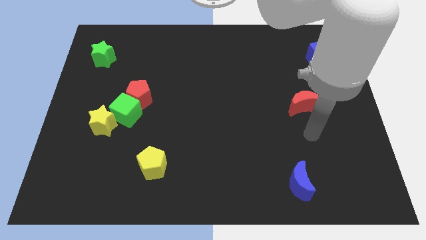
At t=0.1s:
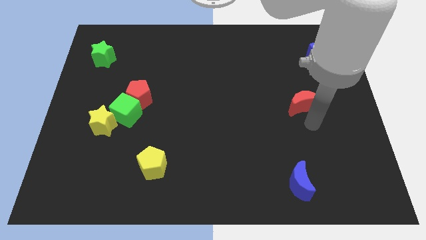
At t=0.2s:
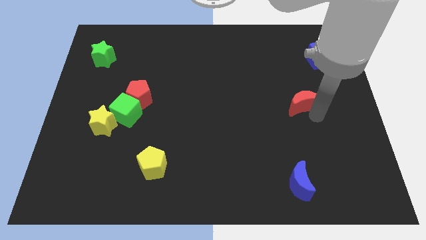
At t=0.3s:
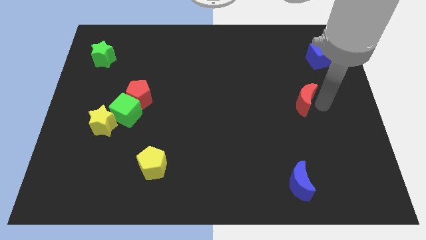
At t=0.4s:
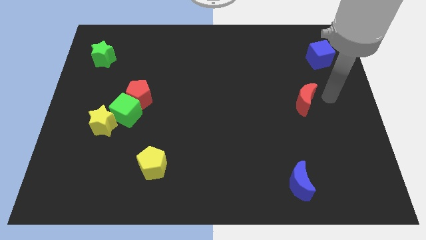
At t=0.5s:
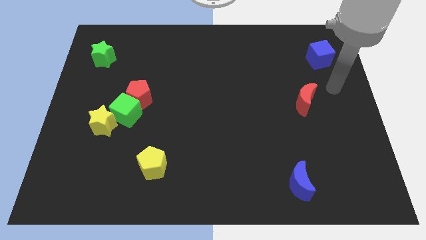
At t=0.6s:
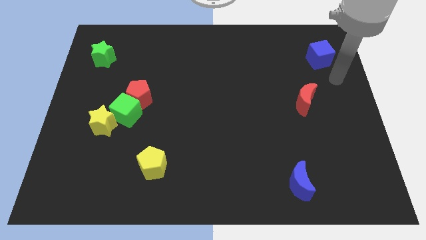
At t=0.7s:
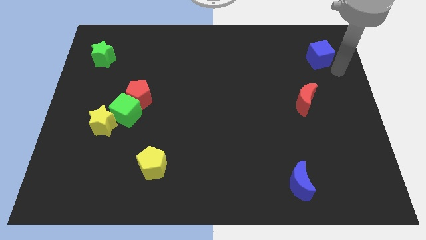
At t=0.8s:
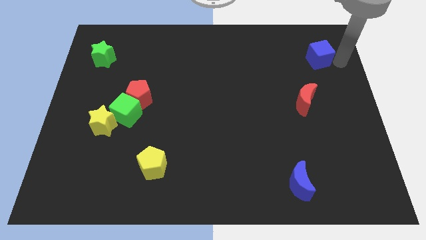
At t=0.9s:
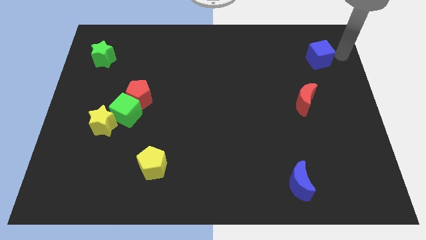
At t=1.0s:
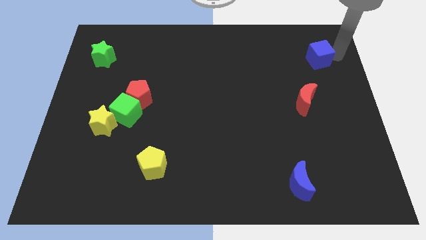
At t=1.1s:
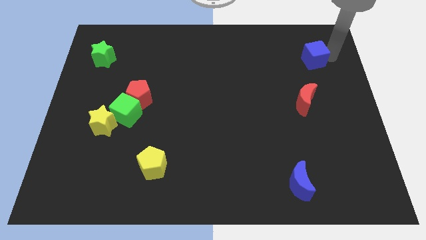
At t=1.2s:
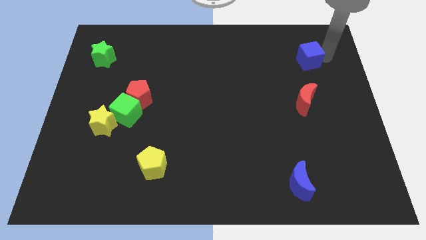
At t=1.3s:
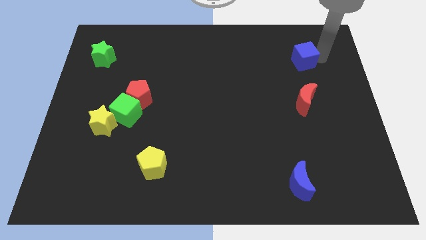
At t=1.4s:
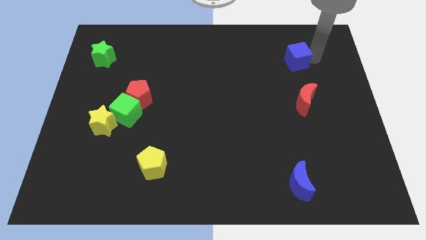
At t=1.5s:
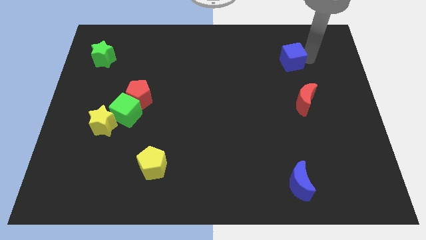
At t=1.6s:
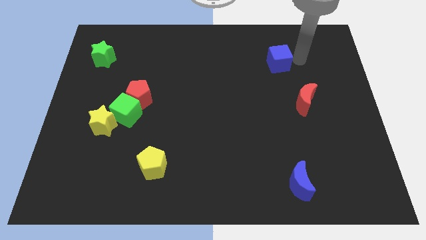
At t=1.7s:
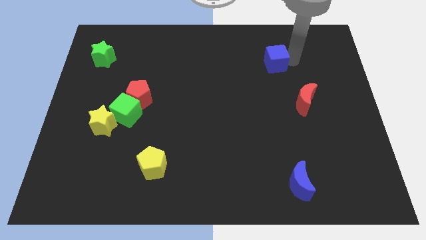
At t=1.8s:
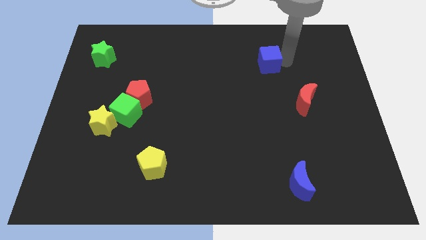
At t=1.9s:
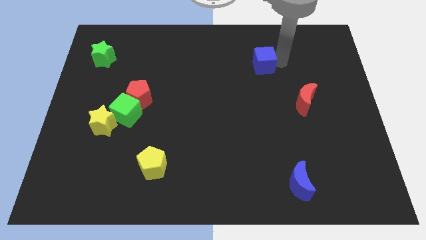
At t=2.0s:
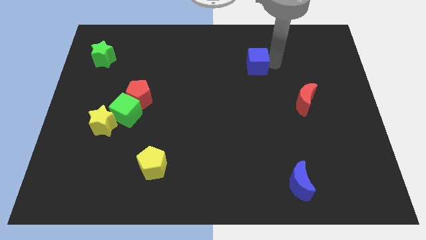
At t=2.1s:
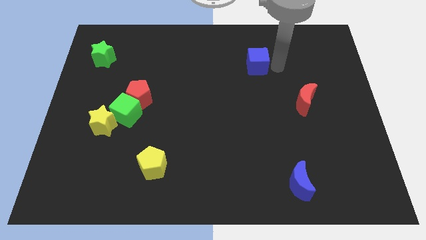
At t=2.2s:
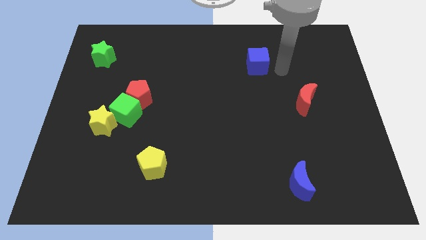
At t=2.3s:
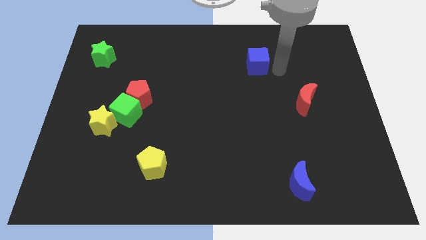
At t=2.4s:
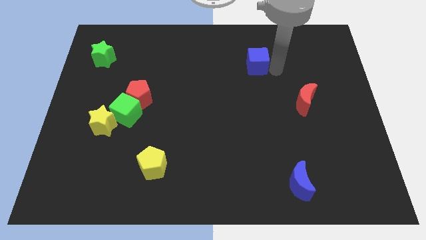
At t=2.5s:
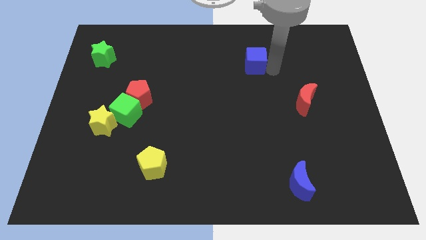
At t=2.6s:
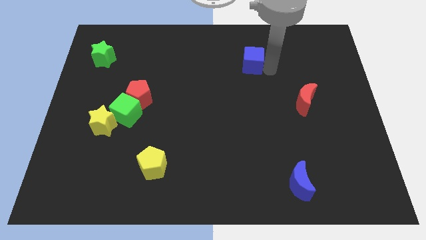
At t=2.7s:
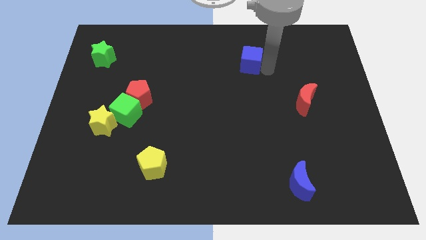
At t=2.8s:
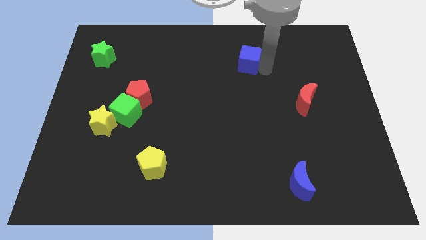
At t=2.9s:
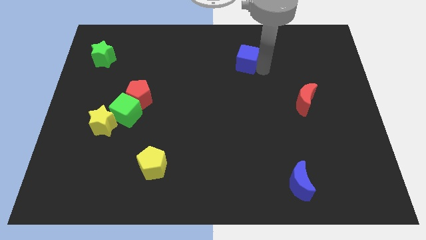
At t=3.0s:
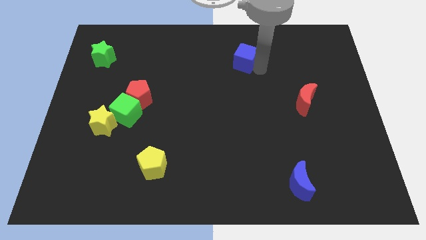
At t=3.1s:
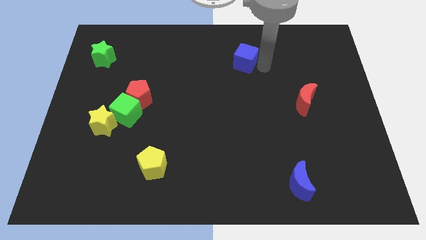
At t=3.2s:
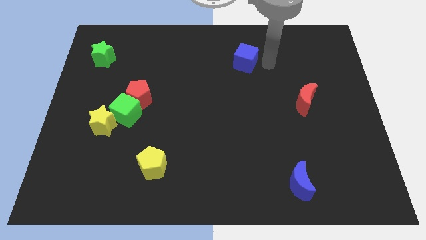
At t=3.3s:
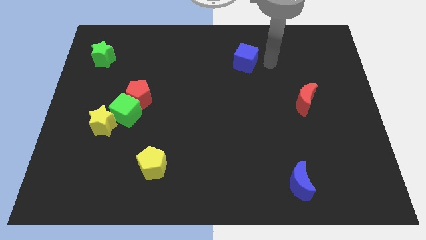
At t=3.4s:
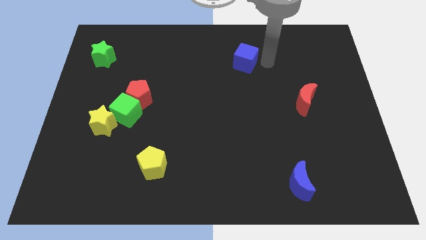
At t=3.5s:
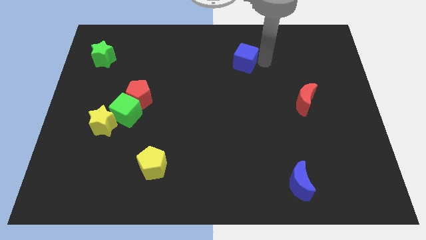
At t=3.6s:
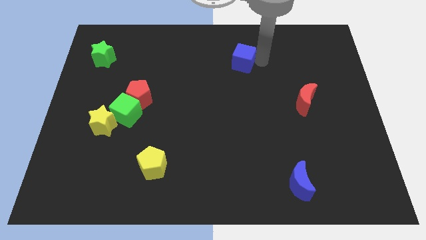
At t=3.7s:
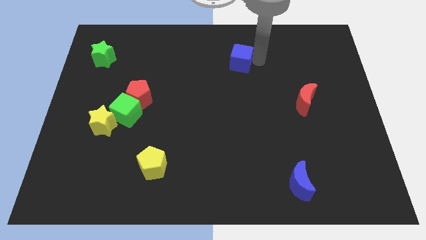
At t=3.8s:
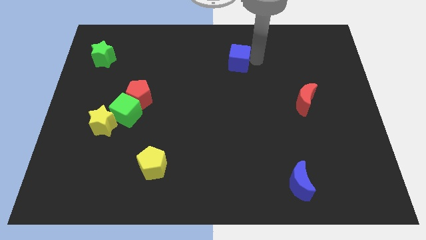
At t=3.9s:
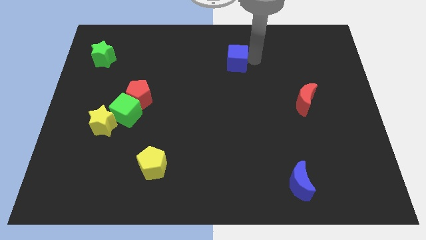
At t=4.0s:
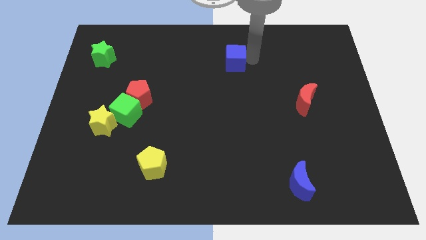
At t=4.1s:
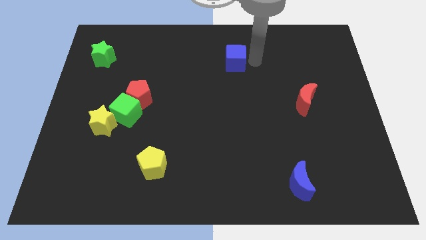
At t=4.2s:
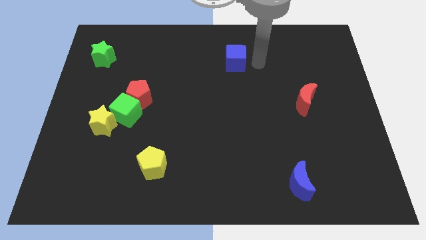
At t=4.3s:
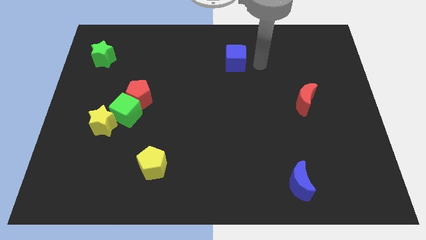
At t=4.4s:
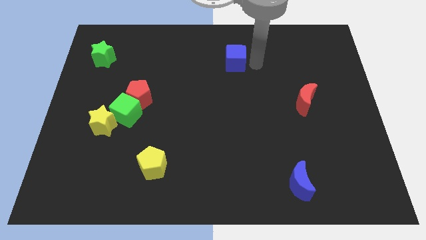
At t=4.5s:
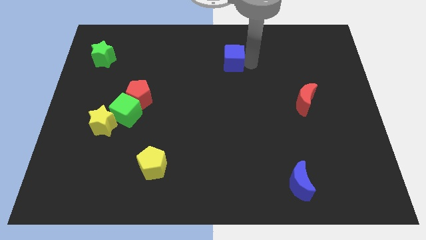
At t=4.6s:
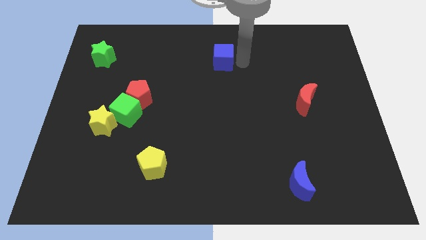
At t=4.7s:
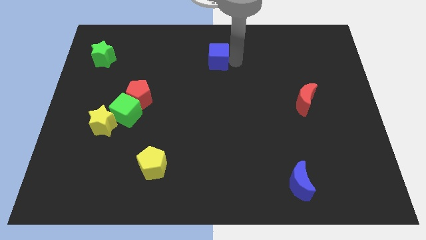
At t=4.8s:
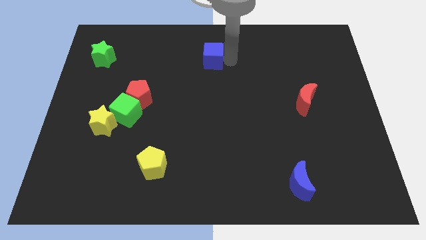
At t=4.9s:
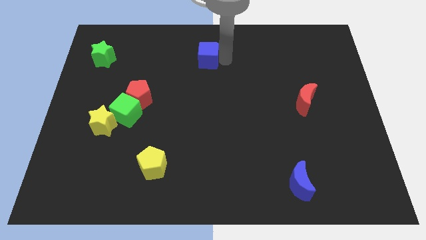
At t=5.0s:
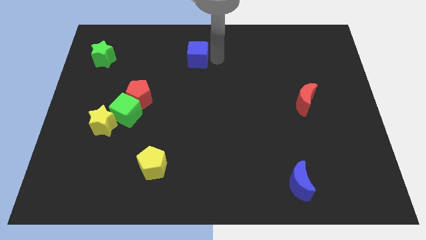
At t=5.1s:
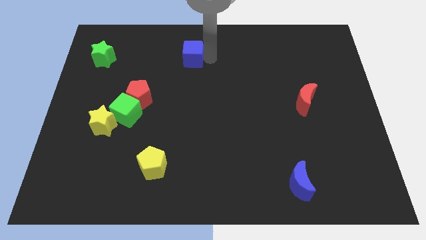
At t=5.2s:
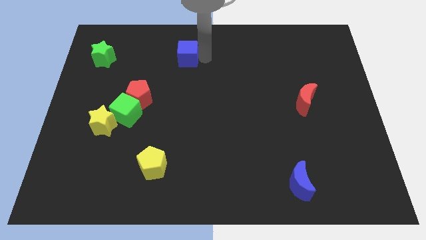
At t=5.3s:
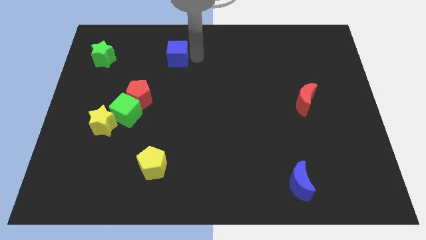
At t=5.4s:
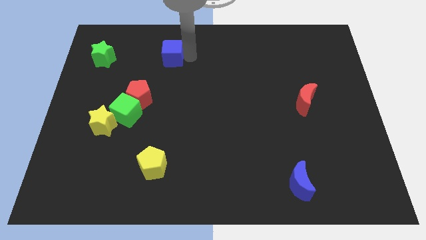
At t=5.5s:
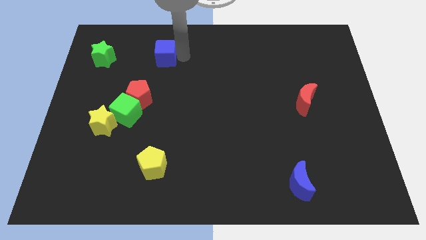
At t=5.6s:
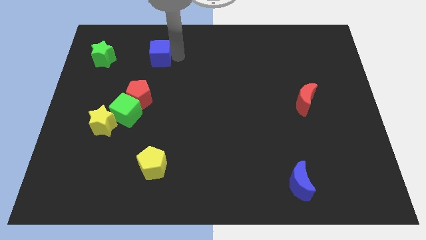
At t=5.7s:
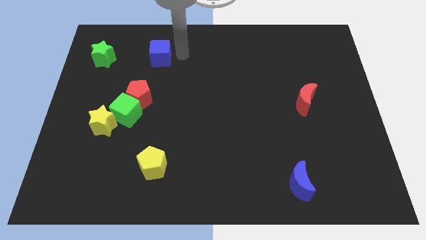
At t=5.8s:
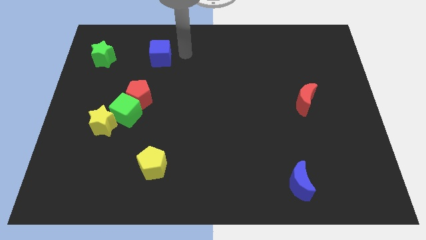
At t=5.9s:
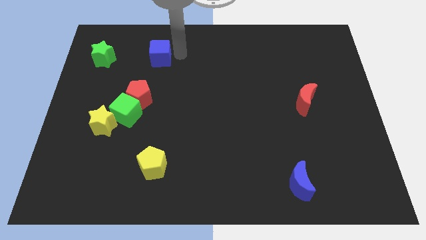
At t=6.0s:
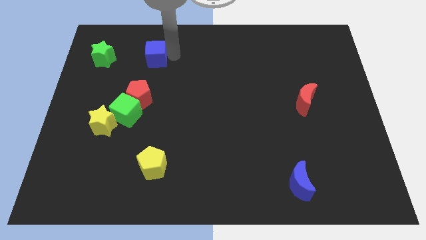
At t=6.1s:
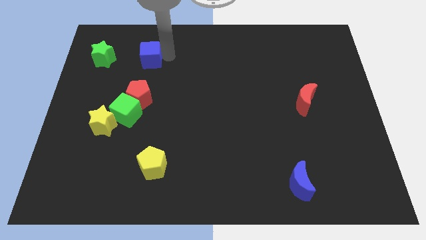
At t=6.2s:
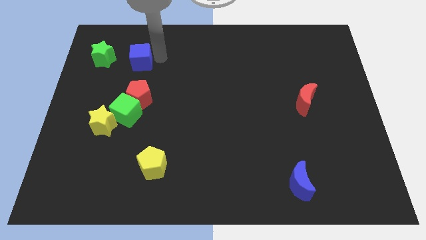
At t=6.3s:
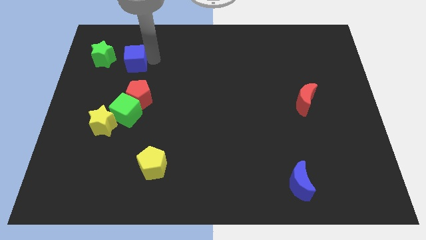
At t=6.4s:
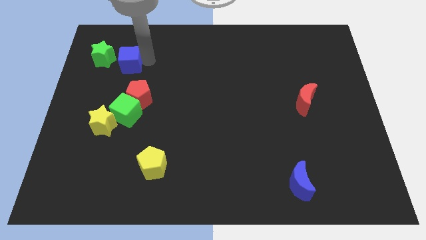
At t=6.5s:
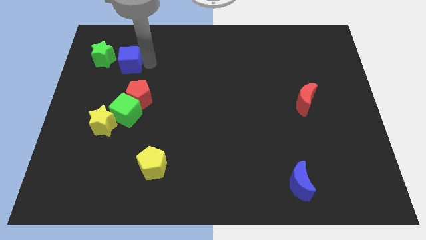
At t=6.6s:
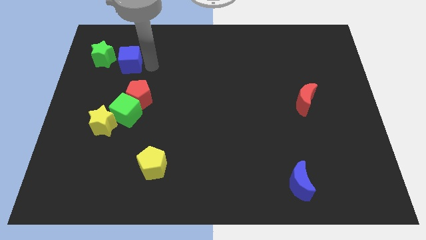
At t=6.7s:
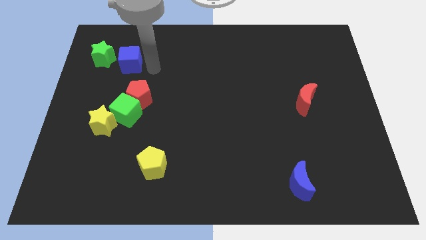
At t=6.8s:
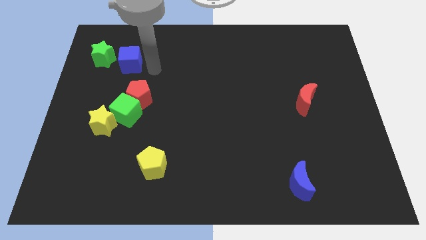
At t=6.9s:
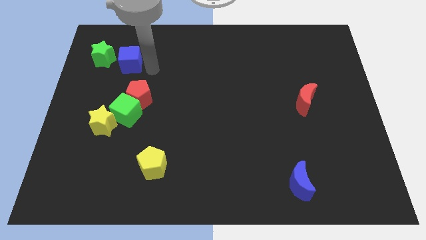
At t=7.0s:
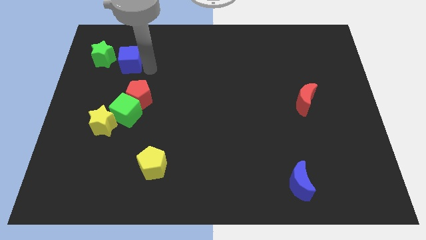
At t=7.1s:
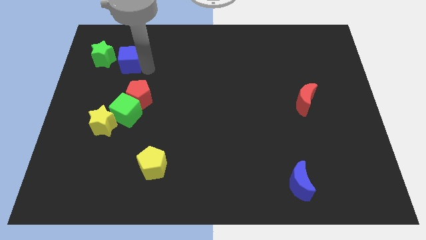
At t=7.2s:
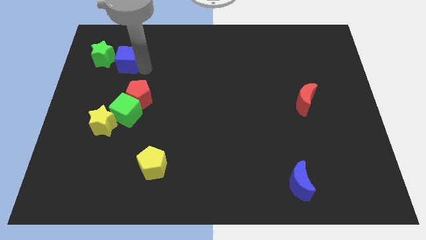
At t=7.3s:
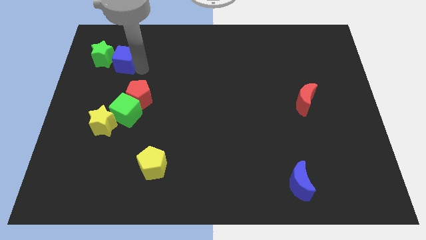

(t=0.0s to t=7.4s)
push the blue cube to the green star

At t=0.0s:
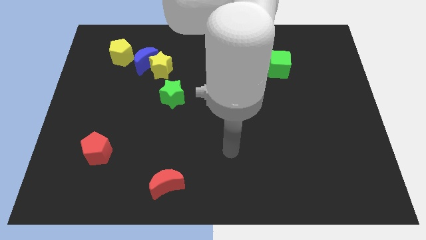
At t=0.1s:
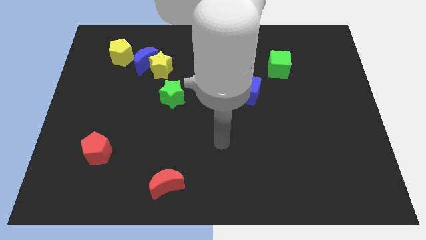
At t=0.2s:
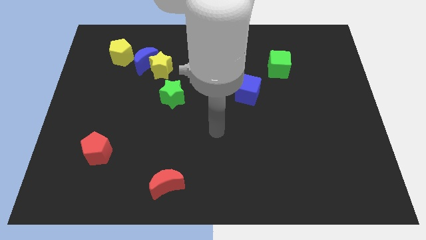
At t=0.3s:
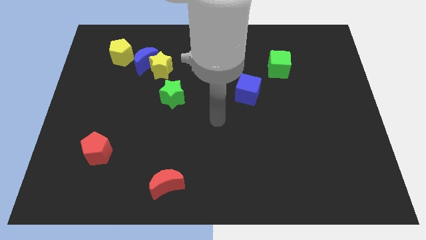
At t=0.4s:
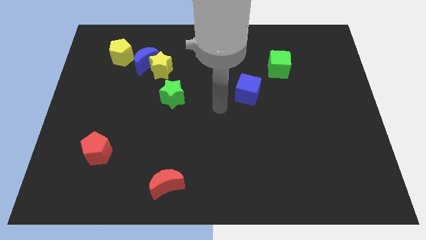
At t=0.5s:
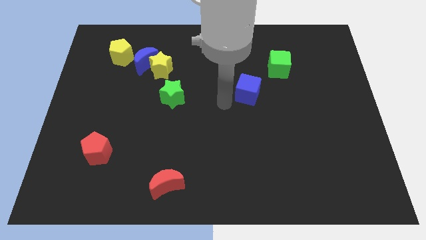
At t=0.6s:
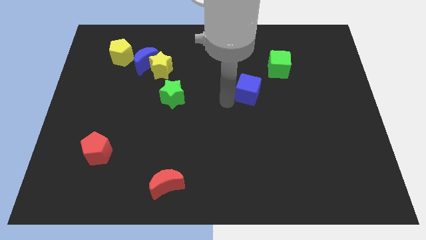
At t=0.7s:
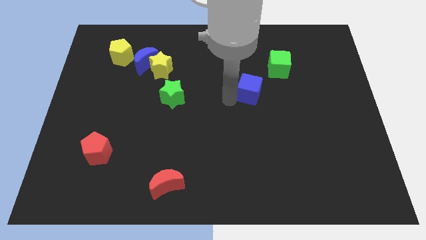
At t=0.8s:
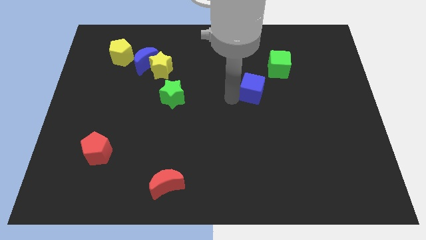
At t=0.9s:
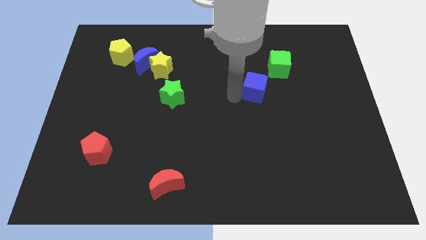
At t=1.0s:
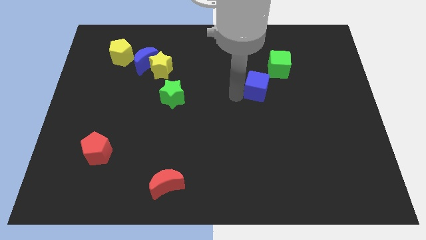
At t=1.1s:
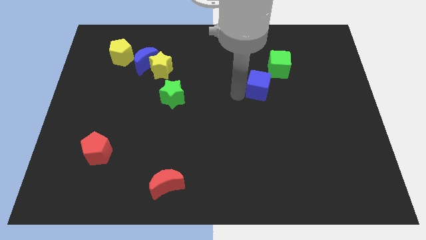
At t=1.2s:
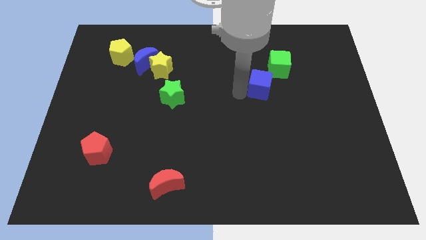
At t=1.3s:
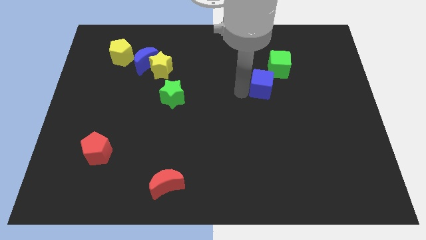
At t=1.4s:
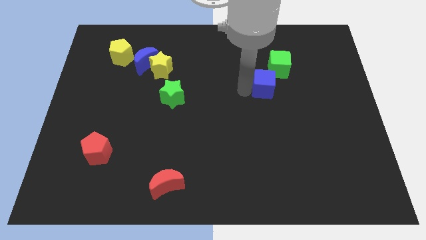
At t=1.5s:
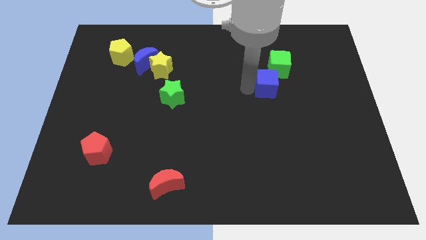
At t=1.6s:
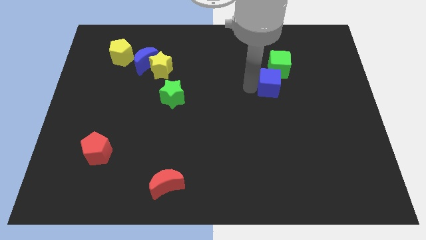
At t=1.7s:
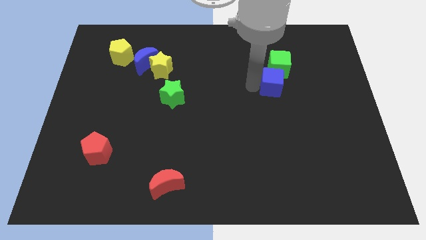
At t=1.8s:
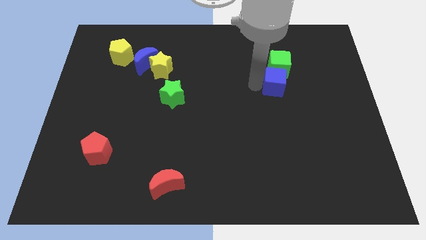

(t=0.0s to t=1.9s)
slide the blue cube to the green cube
